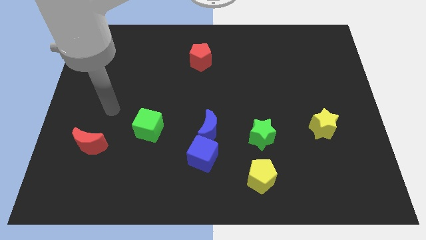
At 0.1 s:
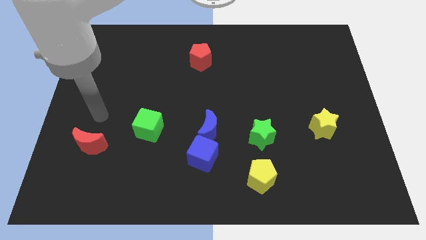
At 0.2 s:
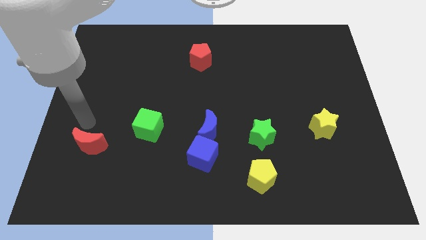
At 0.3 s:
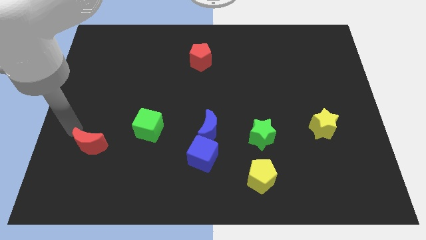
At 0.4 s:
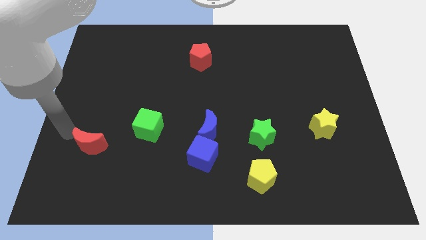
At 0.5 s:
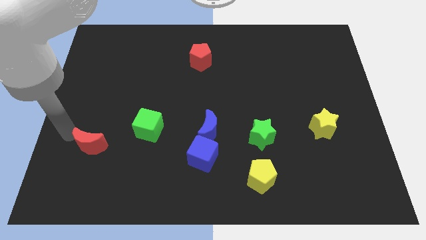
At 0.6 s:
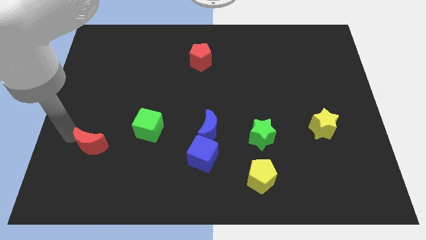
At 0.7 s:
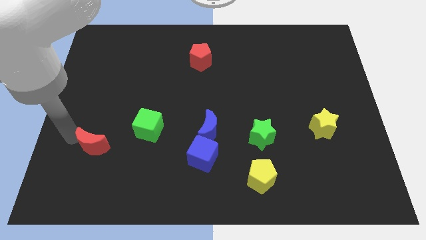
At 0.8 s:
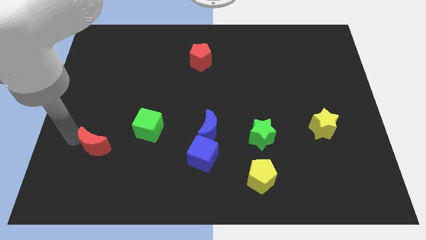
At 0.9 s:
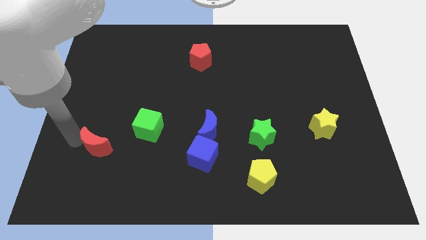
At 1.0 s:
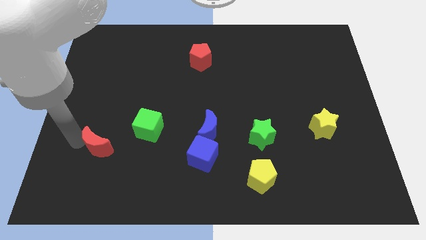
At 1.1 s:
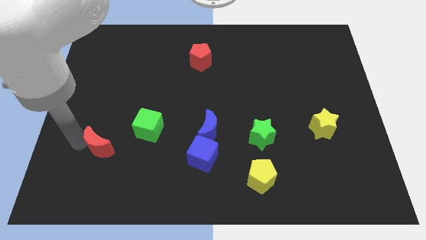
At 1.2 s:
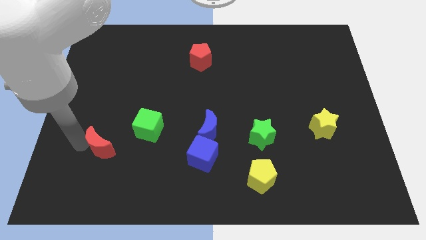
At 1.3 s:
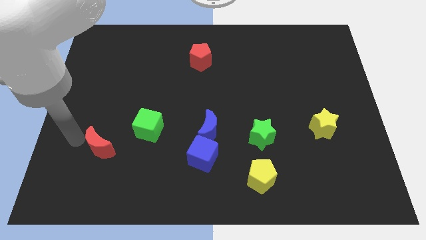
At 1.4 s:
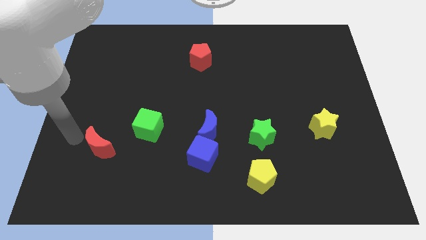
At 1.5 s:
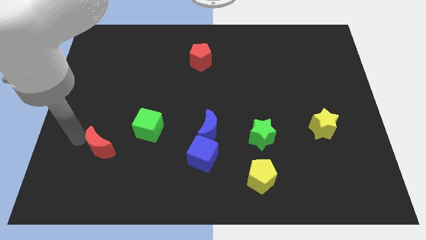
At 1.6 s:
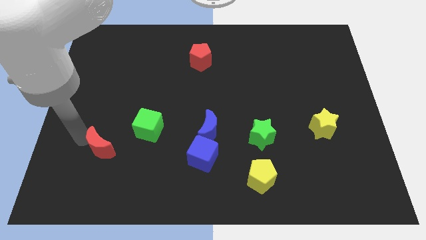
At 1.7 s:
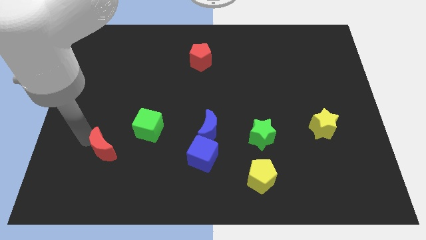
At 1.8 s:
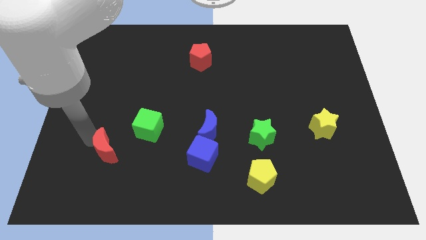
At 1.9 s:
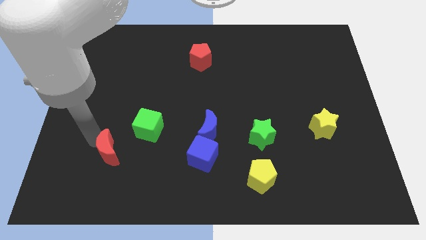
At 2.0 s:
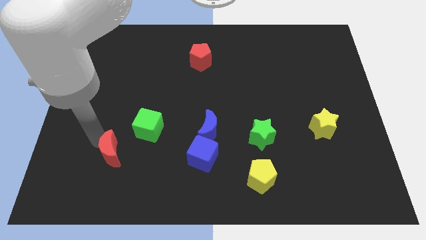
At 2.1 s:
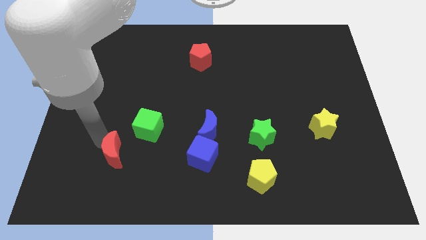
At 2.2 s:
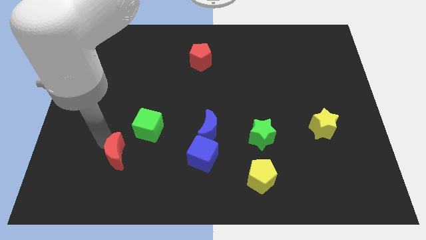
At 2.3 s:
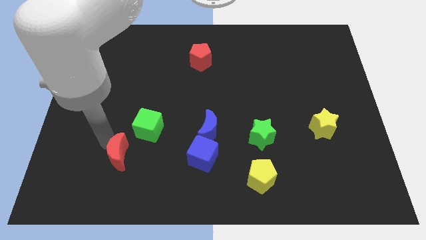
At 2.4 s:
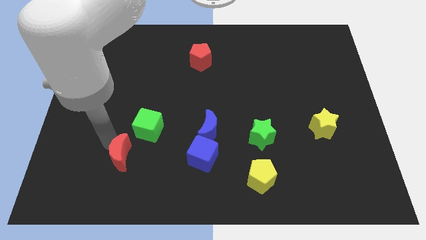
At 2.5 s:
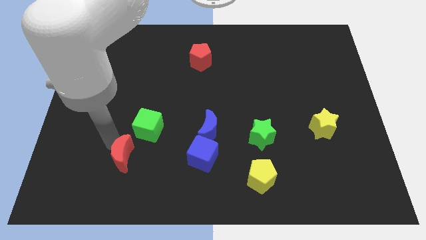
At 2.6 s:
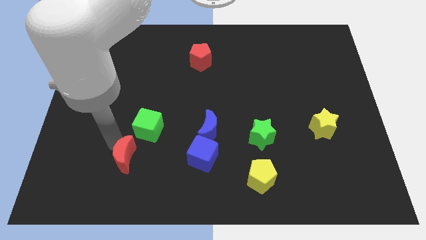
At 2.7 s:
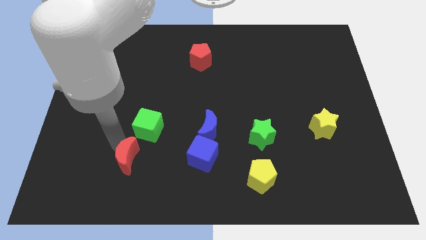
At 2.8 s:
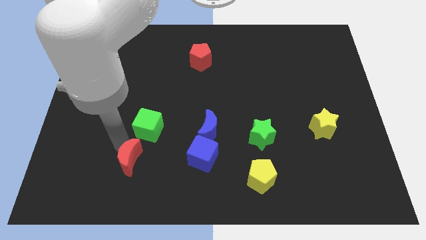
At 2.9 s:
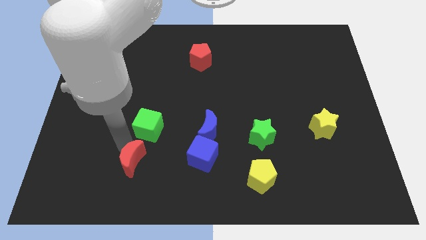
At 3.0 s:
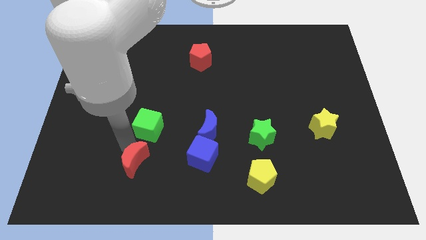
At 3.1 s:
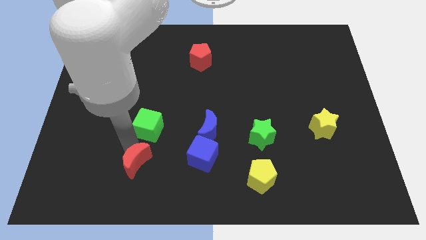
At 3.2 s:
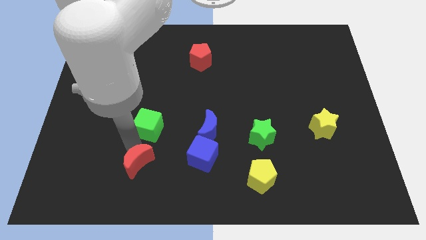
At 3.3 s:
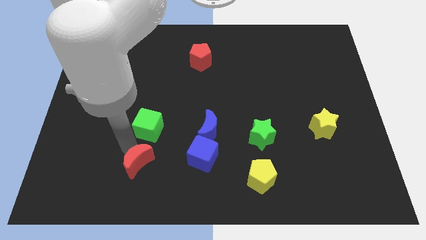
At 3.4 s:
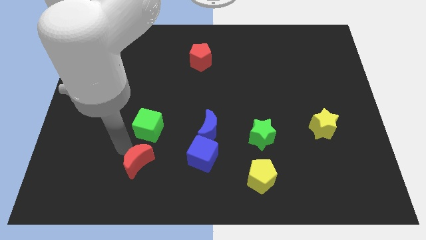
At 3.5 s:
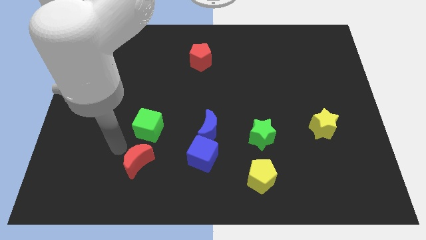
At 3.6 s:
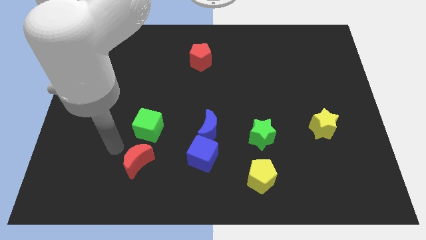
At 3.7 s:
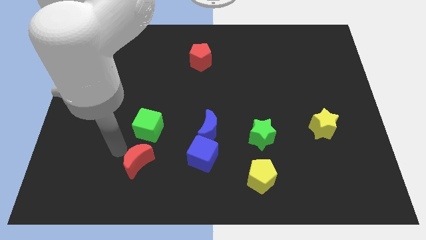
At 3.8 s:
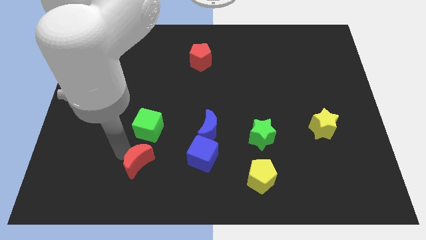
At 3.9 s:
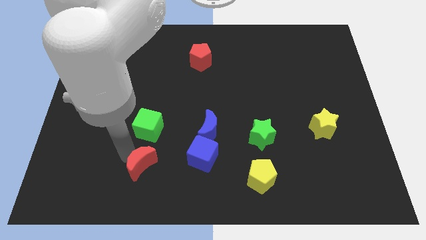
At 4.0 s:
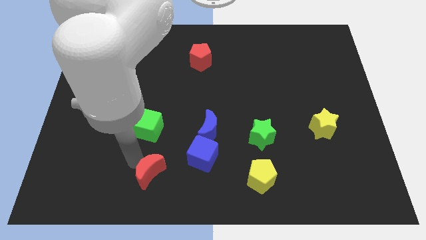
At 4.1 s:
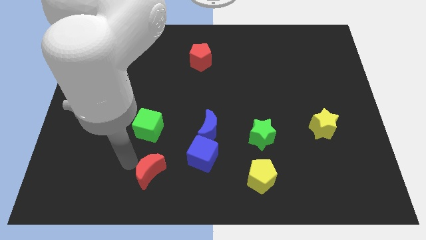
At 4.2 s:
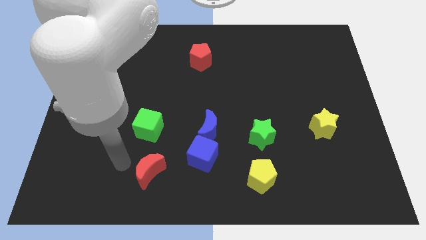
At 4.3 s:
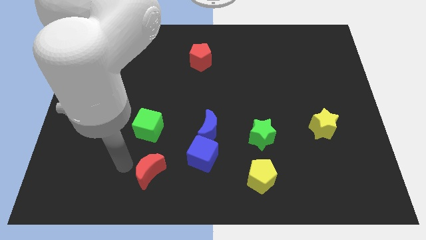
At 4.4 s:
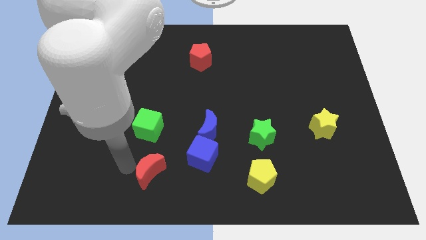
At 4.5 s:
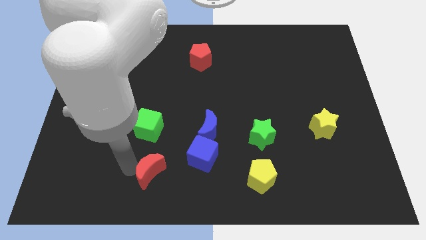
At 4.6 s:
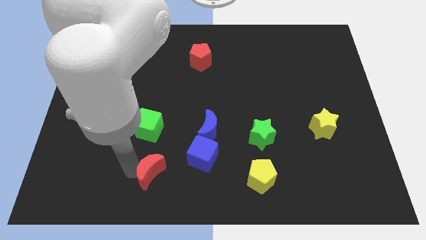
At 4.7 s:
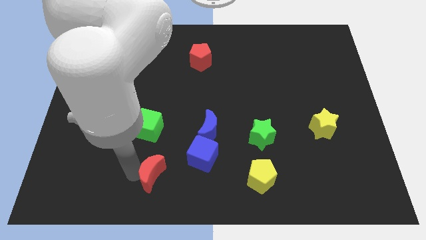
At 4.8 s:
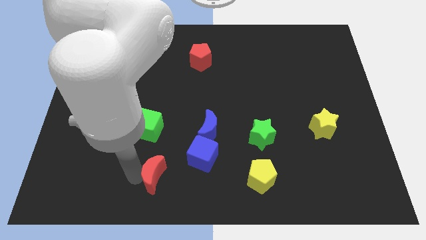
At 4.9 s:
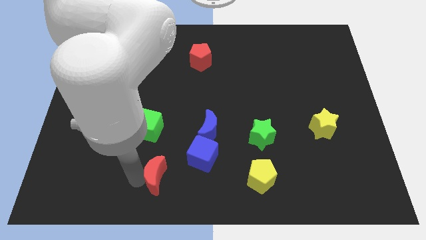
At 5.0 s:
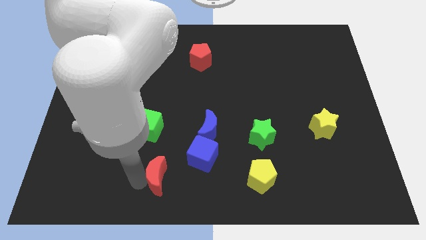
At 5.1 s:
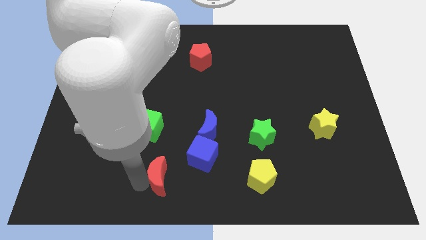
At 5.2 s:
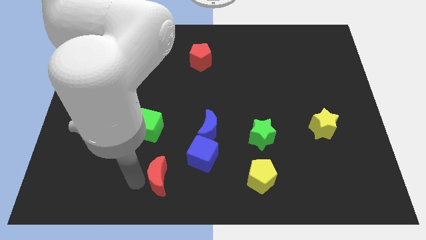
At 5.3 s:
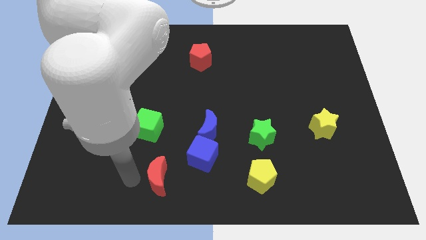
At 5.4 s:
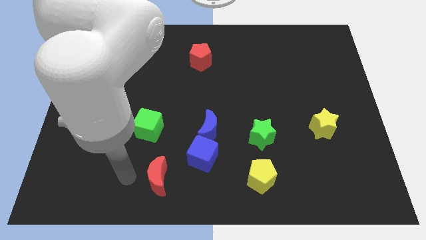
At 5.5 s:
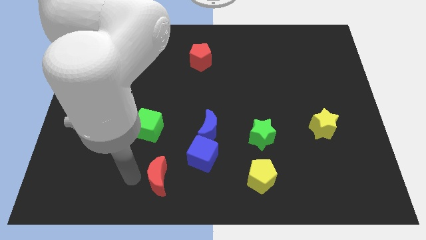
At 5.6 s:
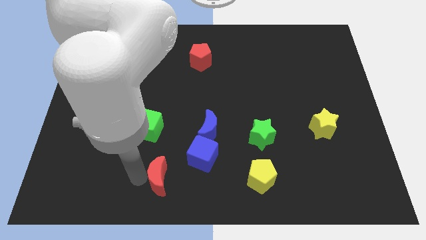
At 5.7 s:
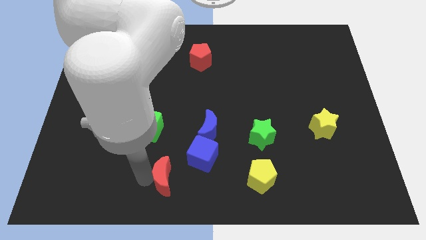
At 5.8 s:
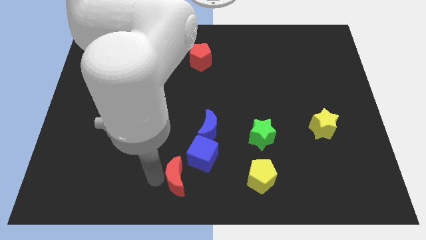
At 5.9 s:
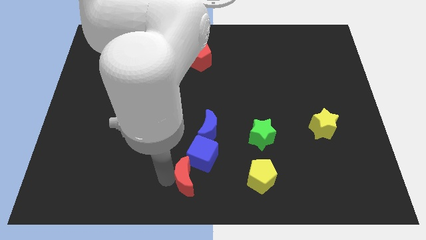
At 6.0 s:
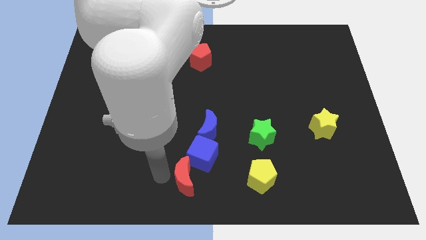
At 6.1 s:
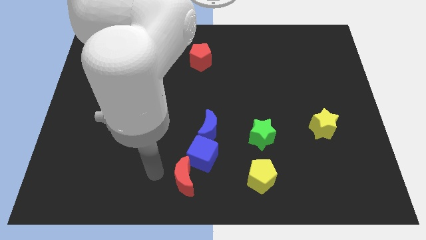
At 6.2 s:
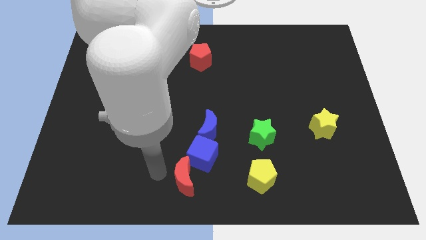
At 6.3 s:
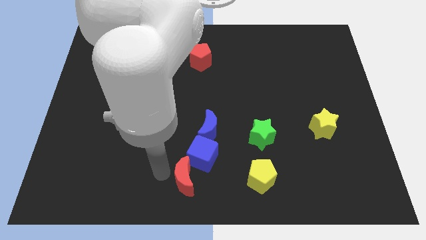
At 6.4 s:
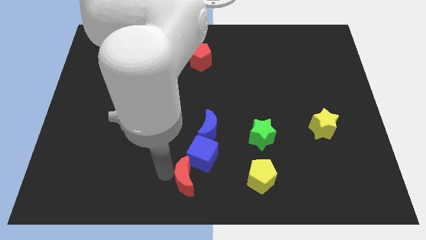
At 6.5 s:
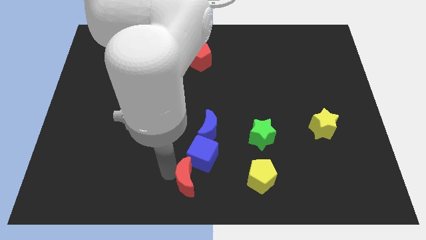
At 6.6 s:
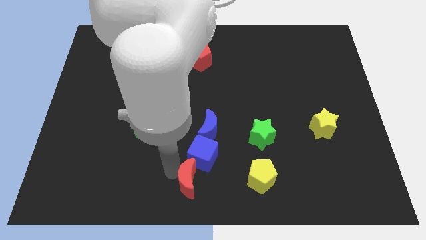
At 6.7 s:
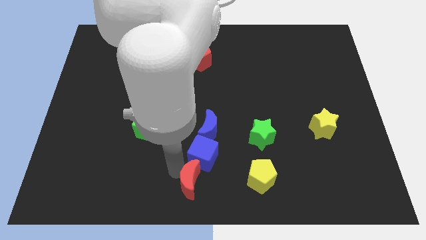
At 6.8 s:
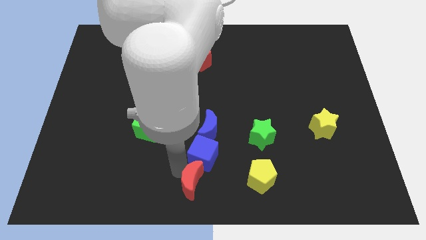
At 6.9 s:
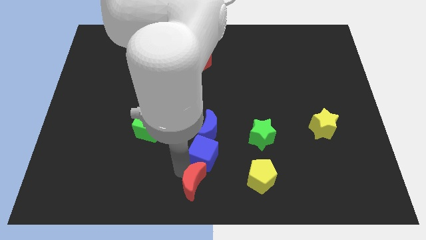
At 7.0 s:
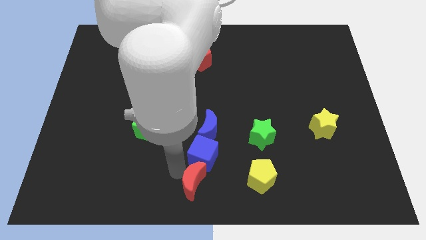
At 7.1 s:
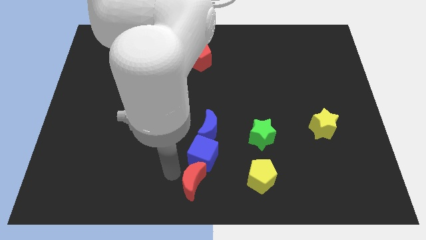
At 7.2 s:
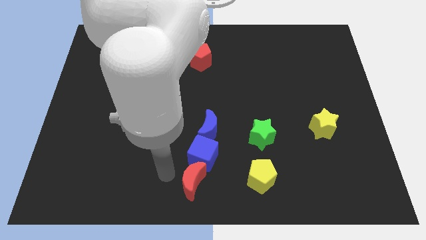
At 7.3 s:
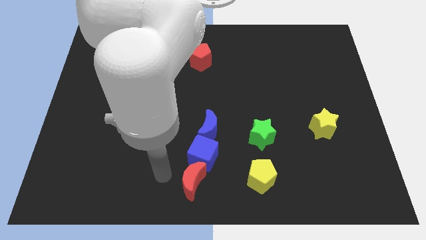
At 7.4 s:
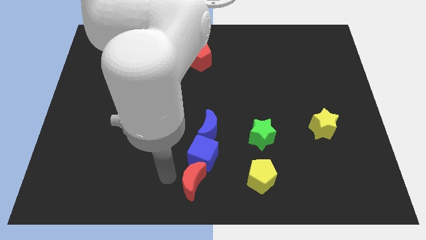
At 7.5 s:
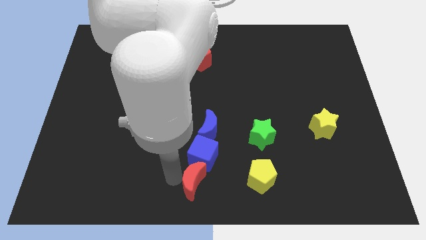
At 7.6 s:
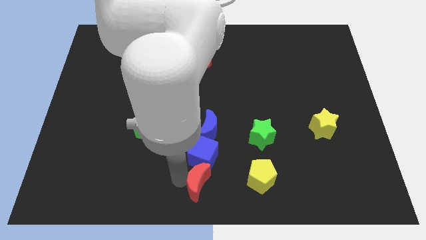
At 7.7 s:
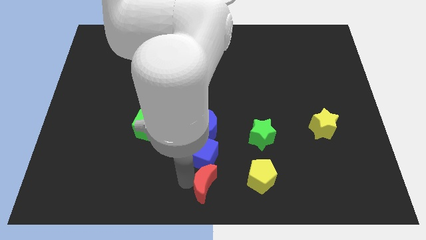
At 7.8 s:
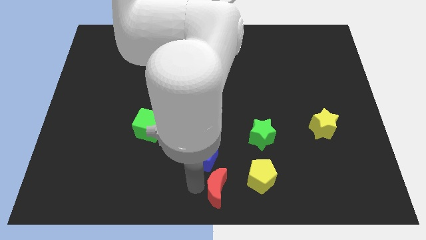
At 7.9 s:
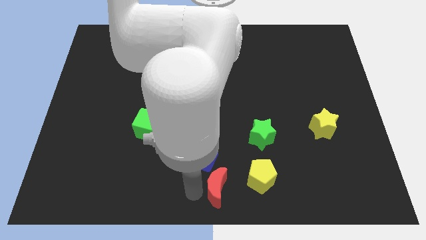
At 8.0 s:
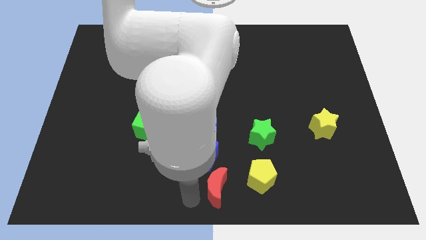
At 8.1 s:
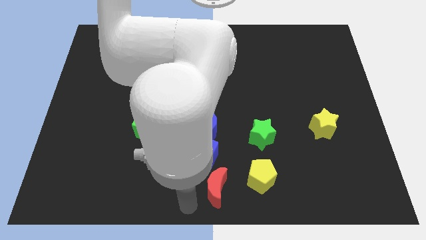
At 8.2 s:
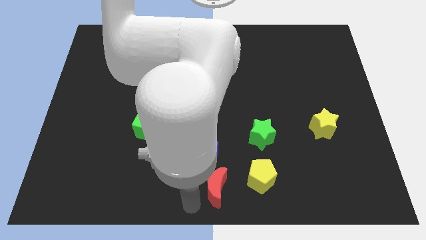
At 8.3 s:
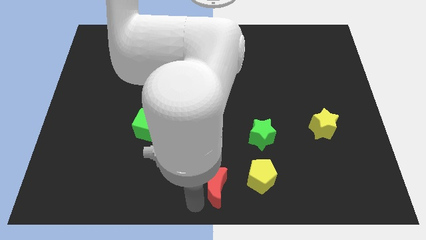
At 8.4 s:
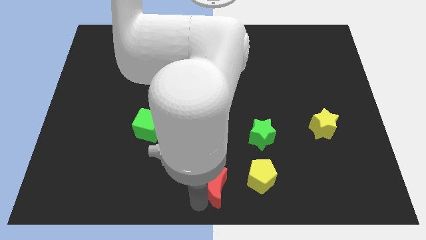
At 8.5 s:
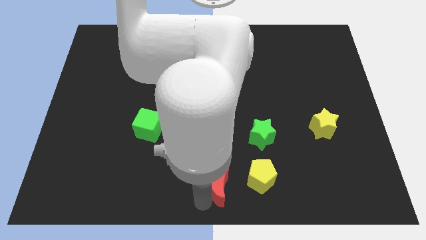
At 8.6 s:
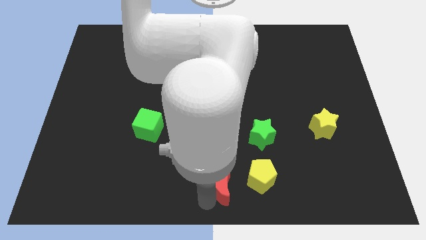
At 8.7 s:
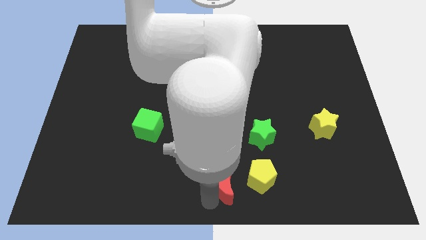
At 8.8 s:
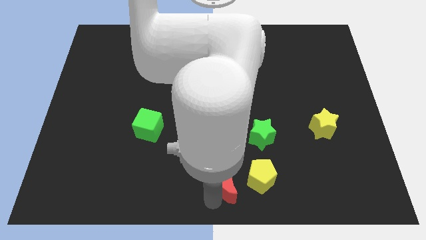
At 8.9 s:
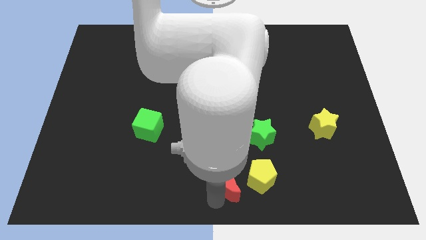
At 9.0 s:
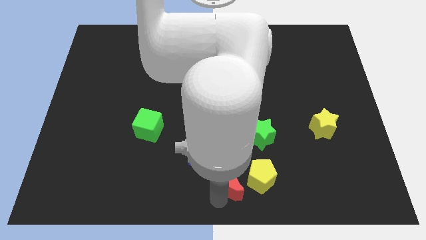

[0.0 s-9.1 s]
push the red moon towards the yellow pentagon
